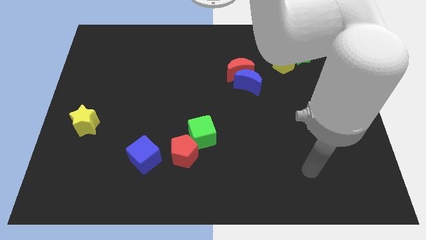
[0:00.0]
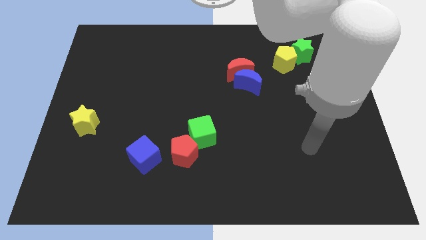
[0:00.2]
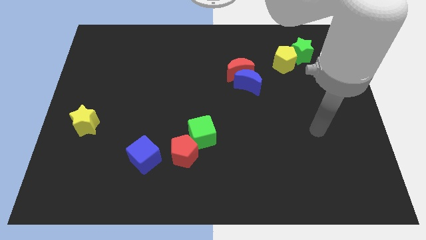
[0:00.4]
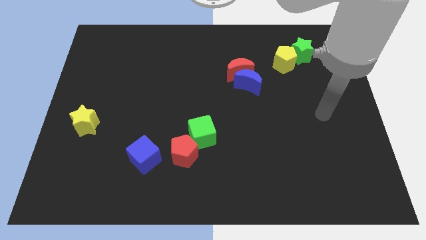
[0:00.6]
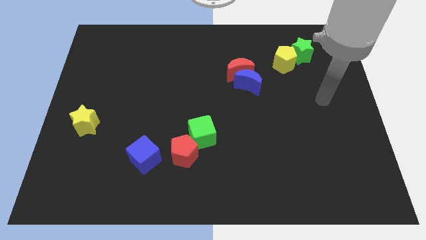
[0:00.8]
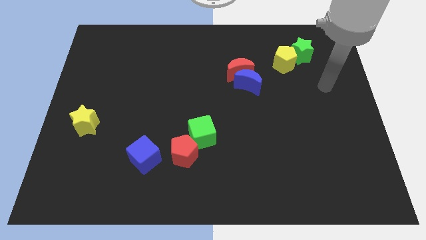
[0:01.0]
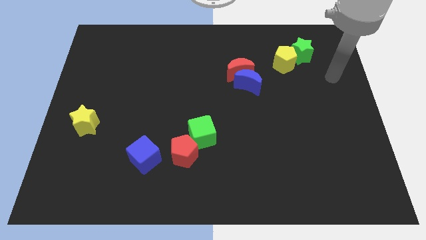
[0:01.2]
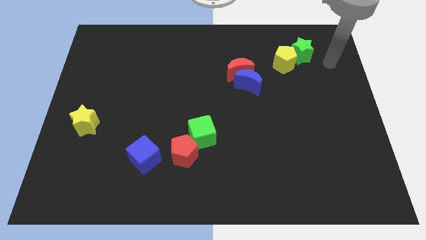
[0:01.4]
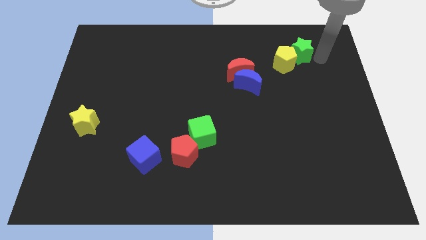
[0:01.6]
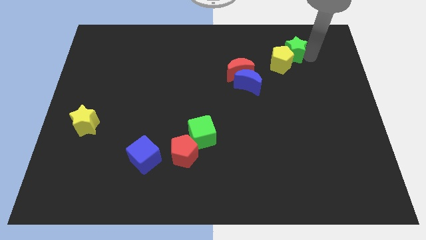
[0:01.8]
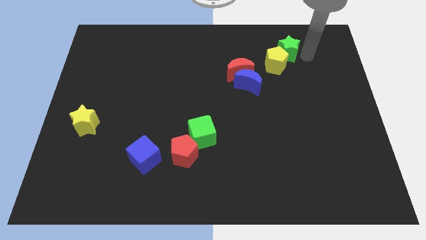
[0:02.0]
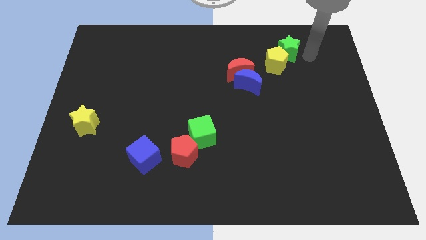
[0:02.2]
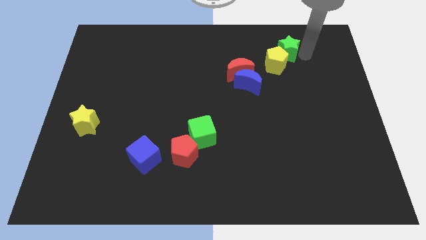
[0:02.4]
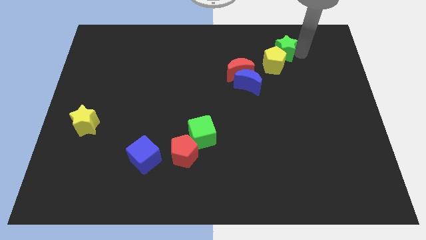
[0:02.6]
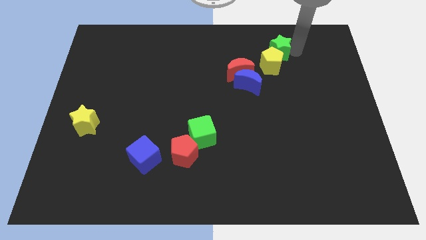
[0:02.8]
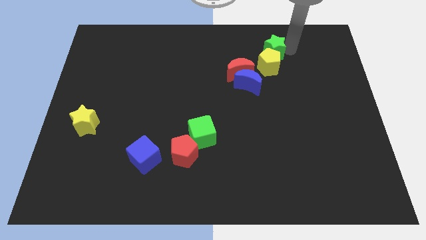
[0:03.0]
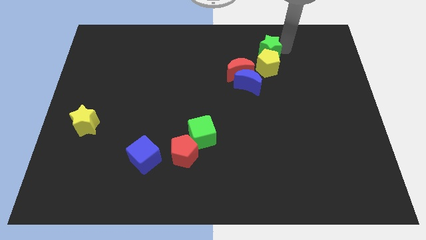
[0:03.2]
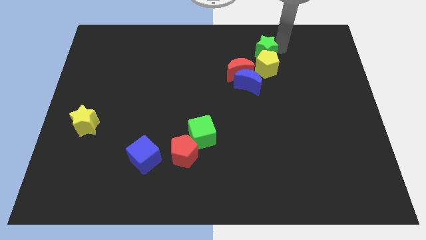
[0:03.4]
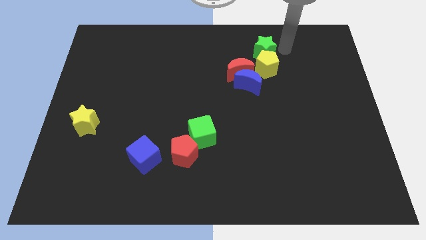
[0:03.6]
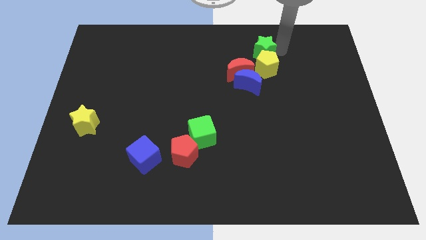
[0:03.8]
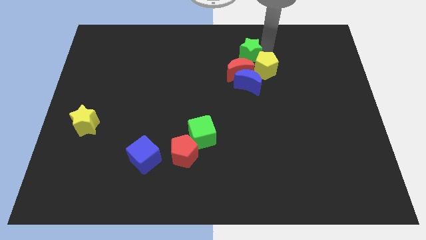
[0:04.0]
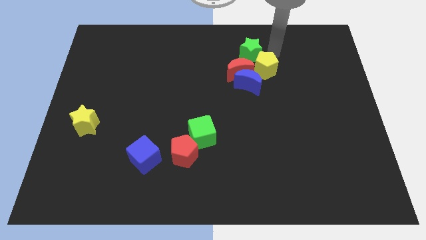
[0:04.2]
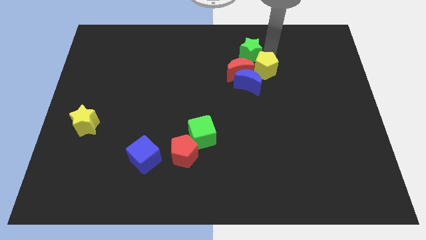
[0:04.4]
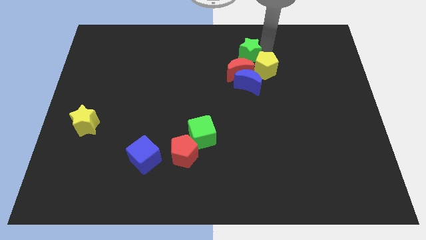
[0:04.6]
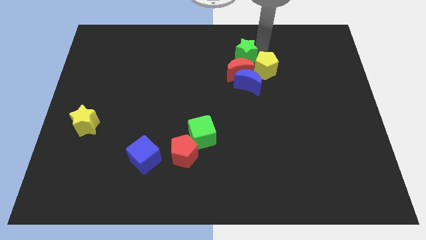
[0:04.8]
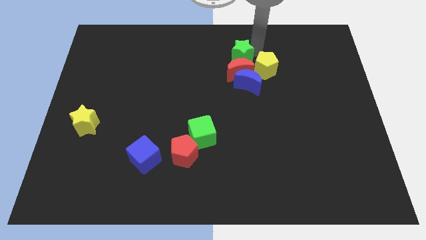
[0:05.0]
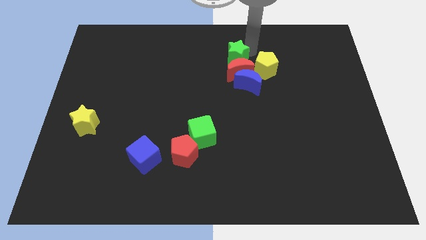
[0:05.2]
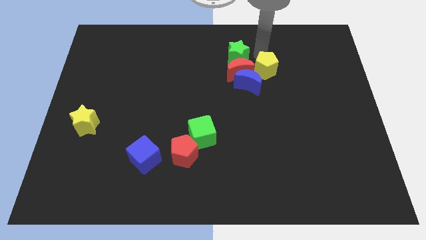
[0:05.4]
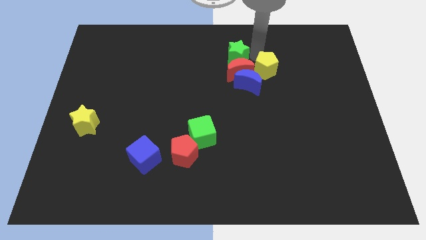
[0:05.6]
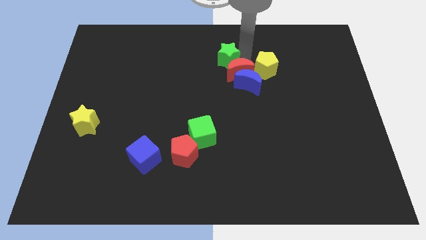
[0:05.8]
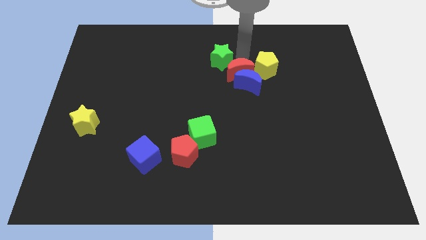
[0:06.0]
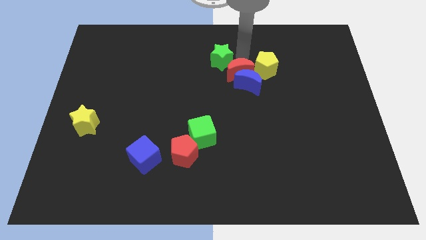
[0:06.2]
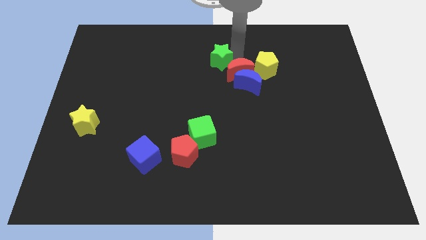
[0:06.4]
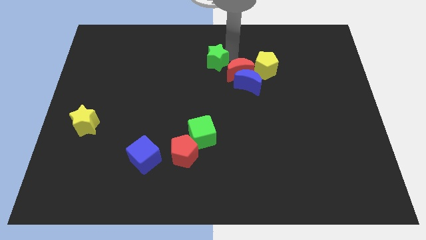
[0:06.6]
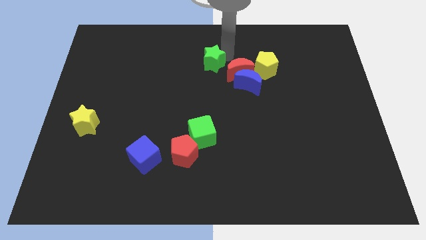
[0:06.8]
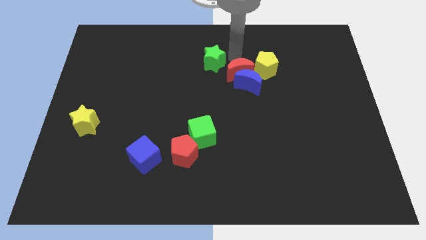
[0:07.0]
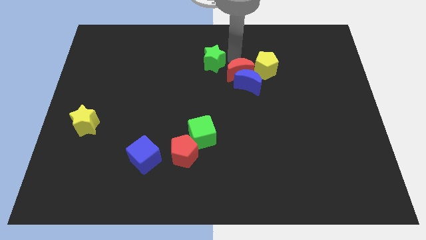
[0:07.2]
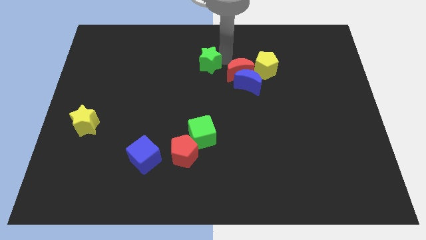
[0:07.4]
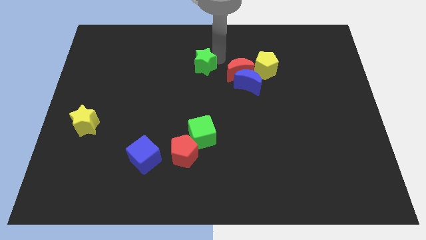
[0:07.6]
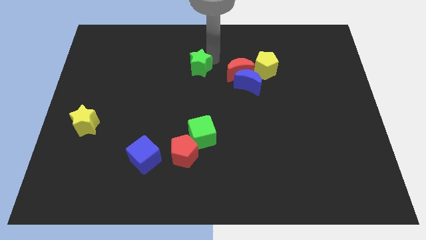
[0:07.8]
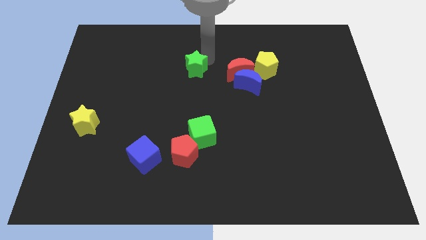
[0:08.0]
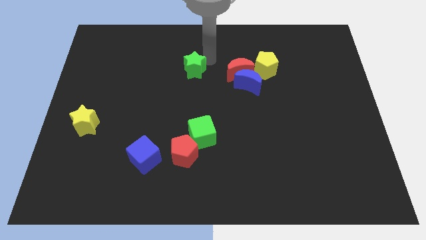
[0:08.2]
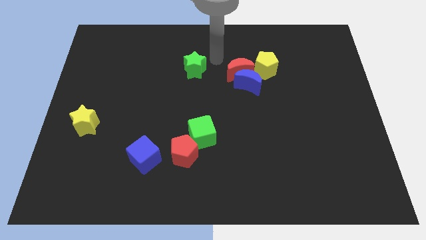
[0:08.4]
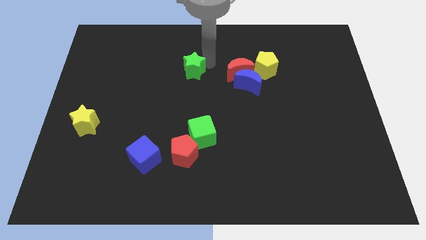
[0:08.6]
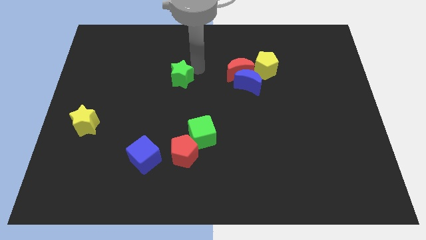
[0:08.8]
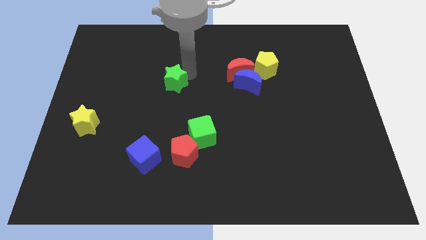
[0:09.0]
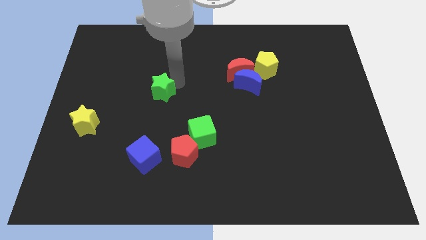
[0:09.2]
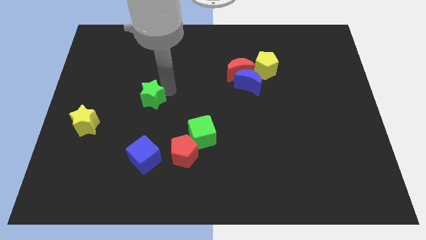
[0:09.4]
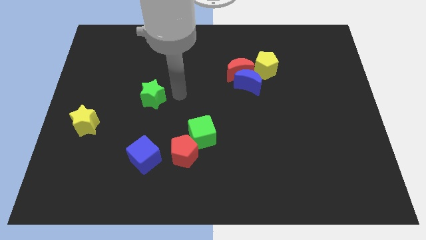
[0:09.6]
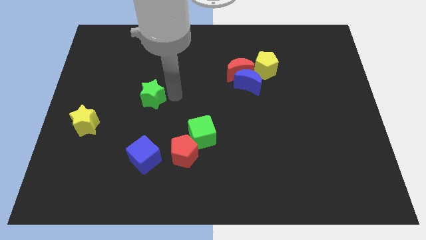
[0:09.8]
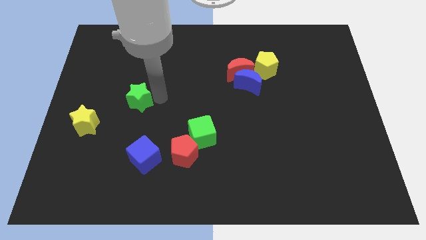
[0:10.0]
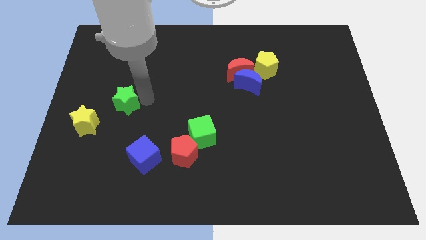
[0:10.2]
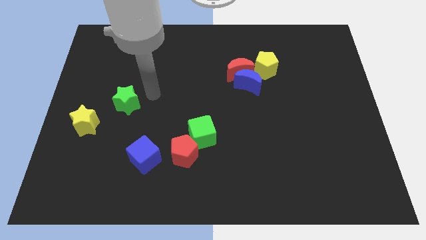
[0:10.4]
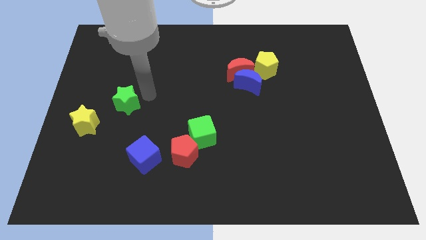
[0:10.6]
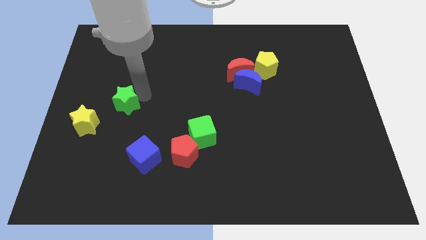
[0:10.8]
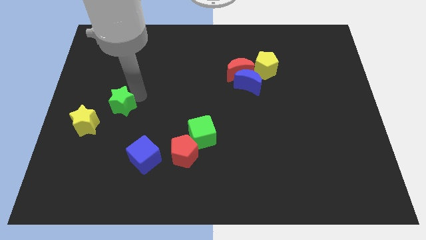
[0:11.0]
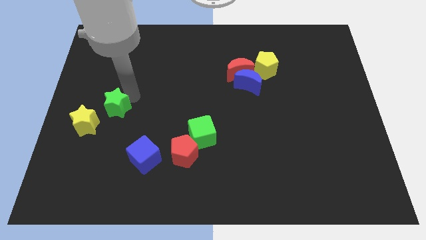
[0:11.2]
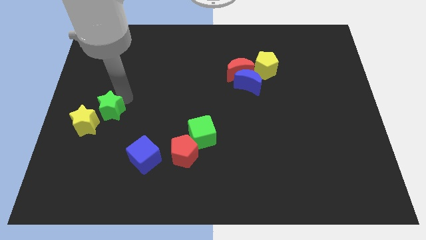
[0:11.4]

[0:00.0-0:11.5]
move the green star to the yellow star

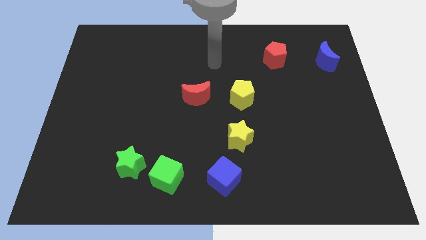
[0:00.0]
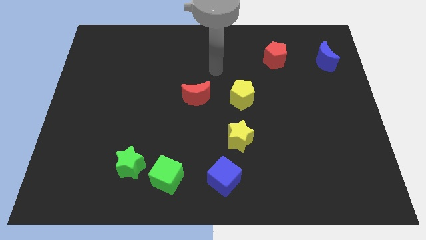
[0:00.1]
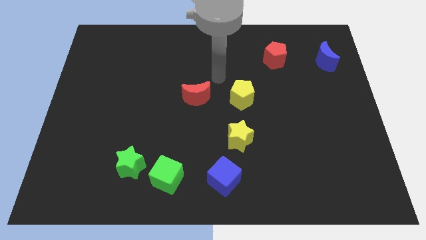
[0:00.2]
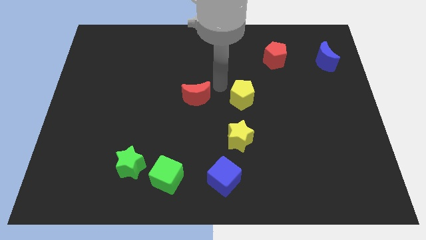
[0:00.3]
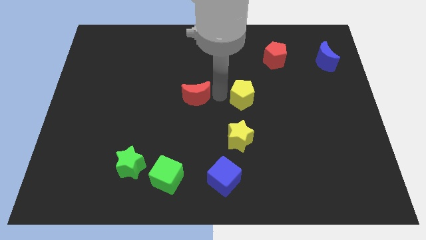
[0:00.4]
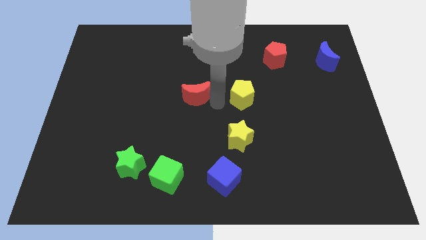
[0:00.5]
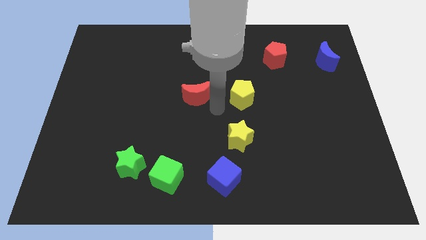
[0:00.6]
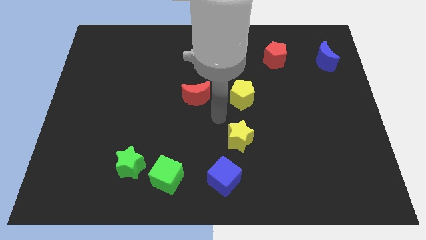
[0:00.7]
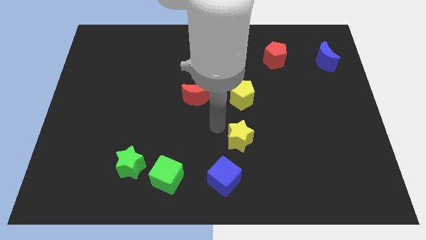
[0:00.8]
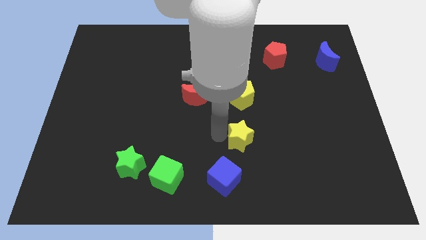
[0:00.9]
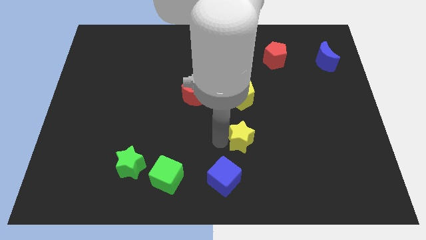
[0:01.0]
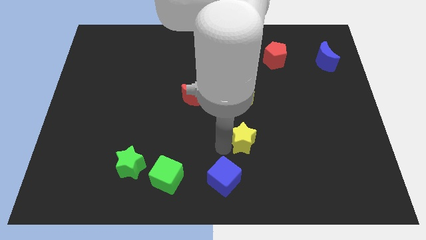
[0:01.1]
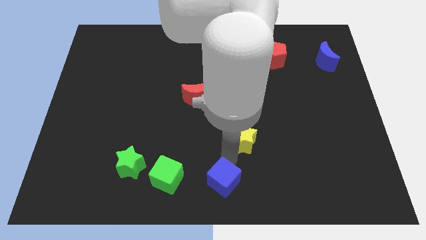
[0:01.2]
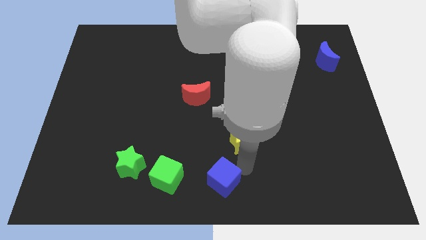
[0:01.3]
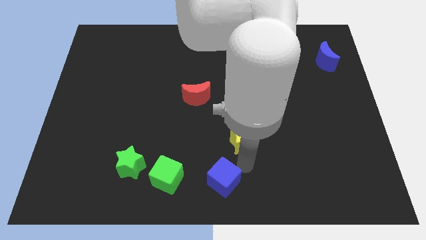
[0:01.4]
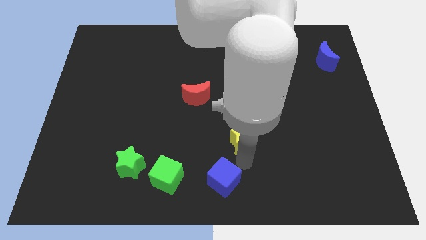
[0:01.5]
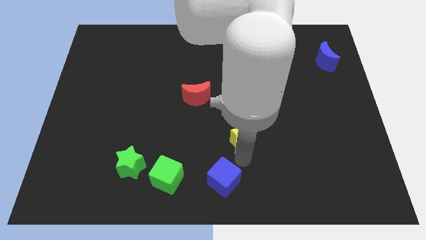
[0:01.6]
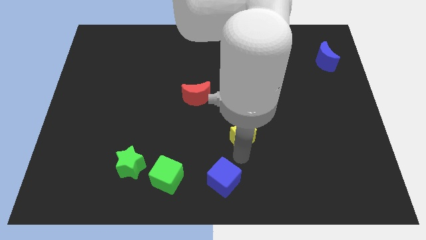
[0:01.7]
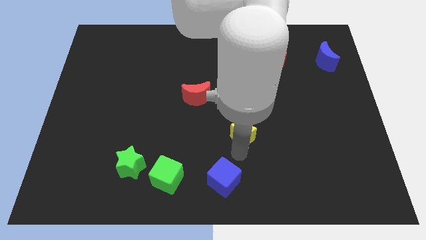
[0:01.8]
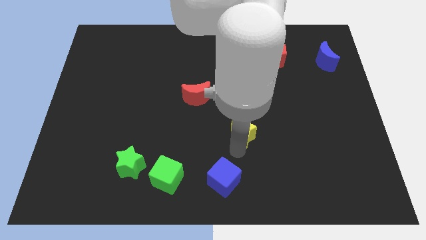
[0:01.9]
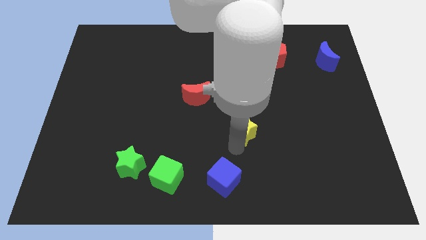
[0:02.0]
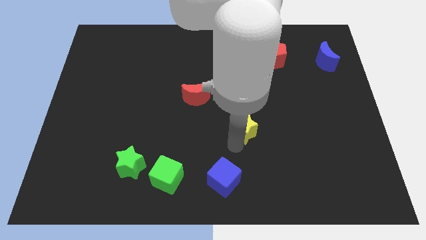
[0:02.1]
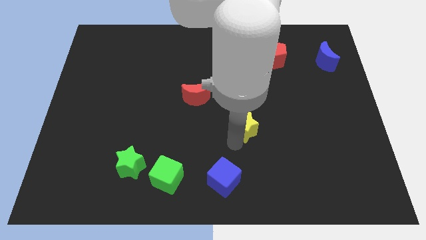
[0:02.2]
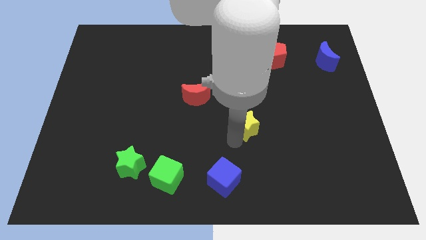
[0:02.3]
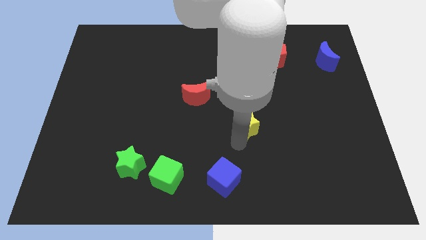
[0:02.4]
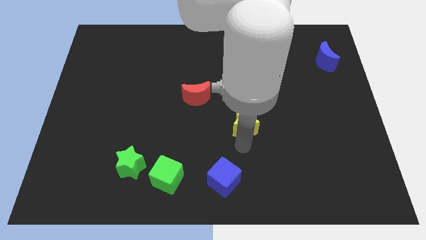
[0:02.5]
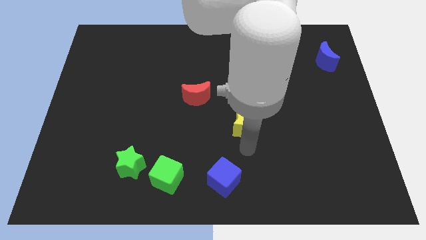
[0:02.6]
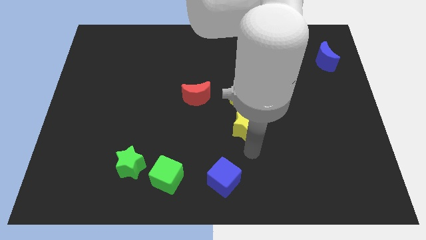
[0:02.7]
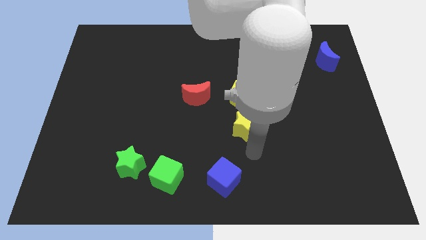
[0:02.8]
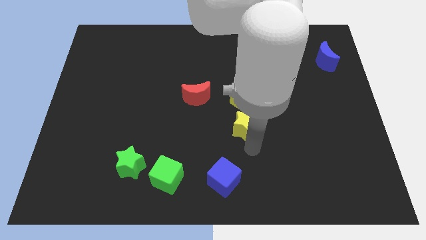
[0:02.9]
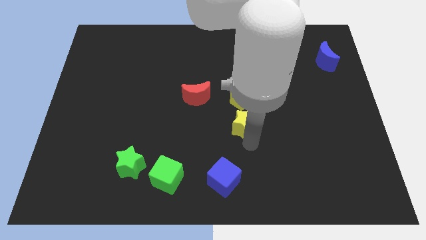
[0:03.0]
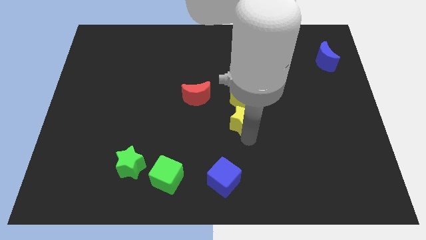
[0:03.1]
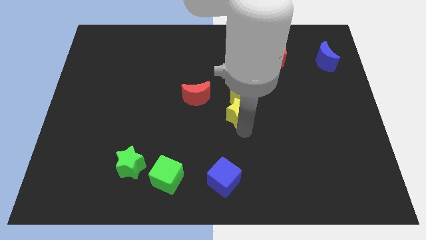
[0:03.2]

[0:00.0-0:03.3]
put the yellow star next to the yellow pentagon
